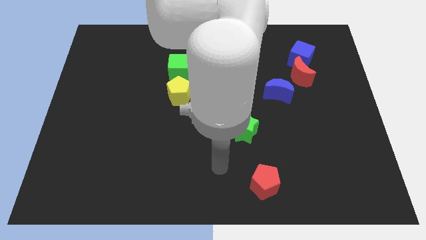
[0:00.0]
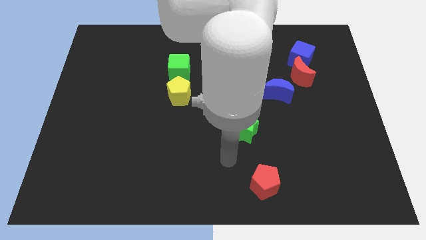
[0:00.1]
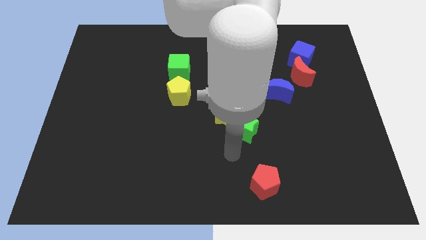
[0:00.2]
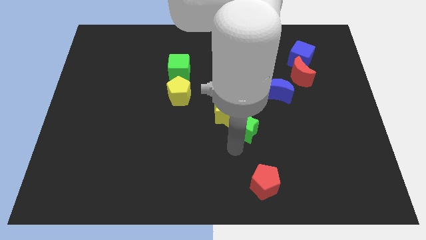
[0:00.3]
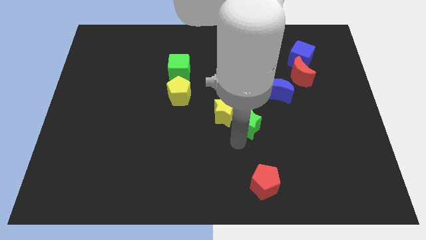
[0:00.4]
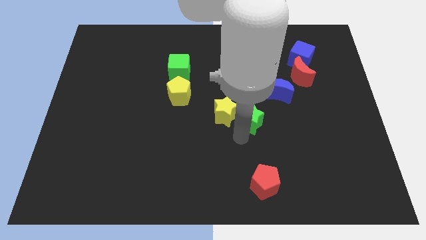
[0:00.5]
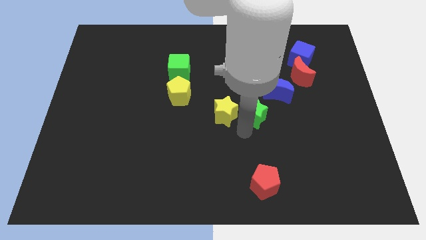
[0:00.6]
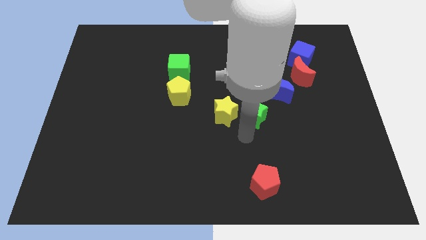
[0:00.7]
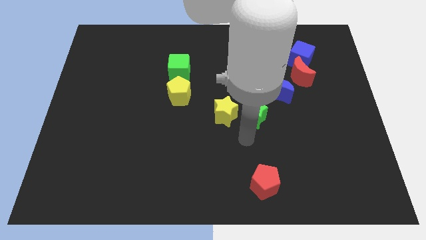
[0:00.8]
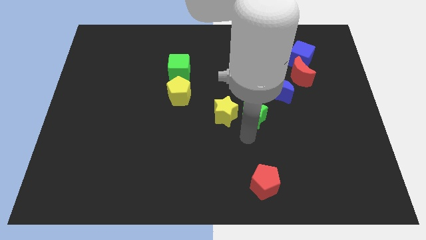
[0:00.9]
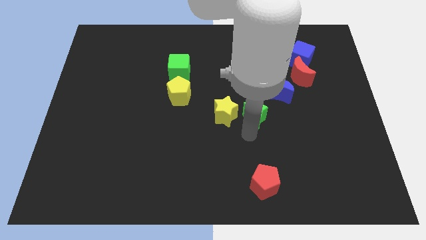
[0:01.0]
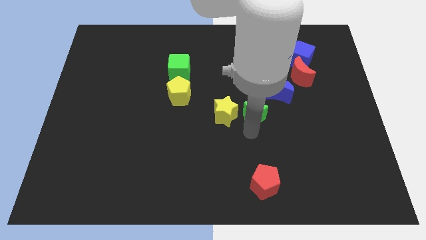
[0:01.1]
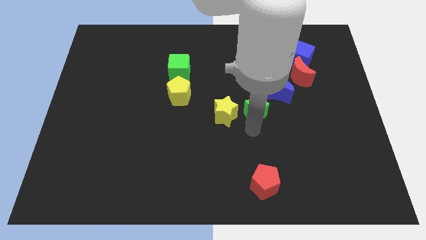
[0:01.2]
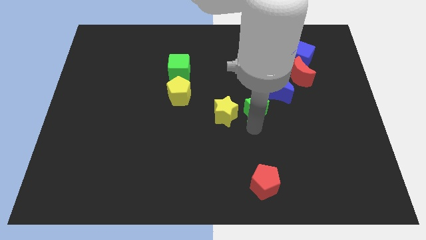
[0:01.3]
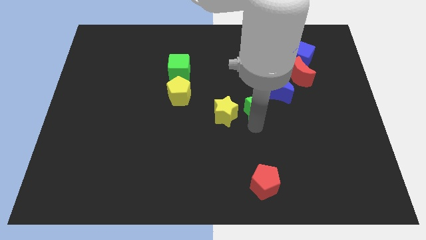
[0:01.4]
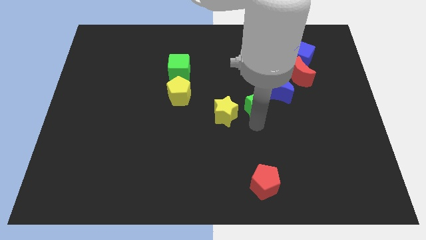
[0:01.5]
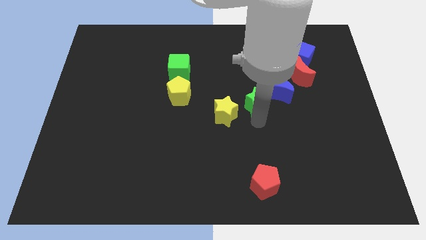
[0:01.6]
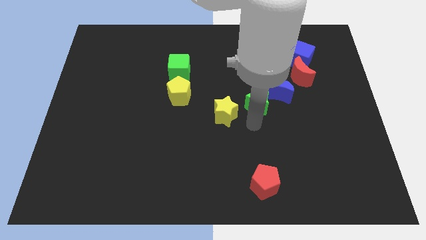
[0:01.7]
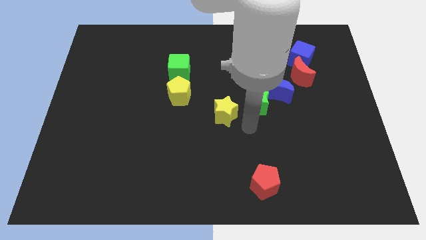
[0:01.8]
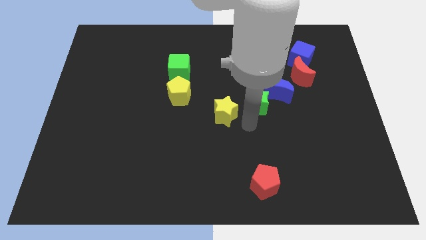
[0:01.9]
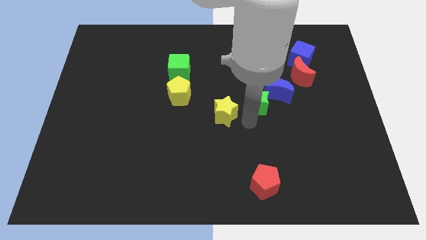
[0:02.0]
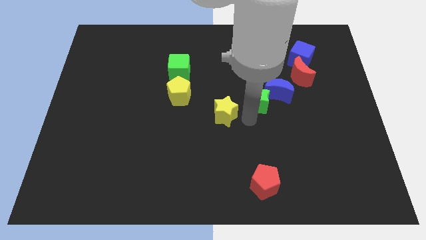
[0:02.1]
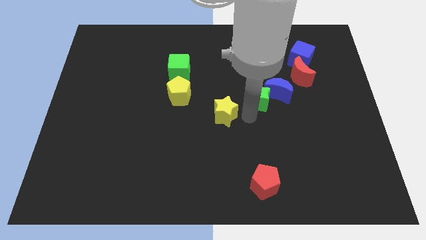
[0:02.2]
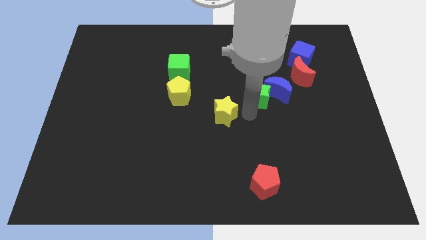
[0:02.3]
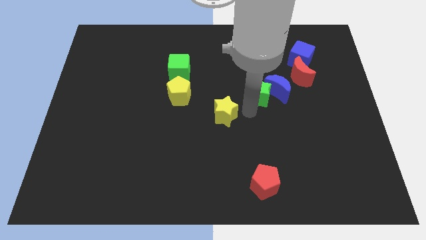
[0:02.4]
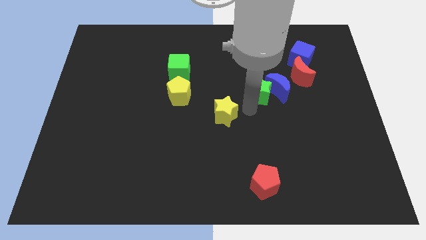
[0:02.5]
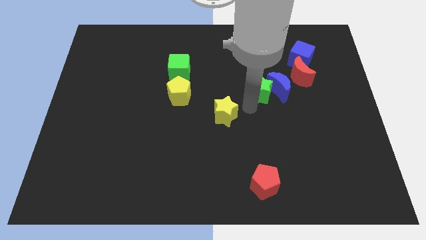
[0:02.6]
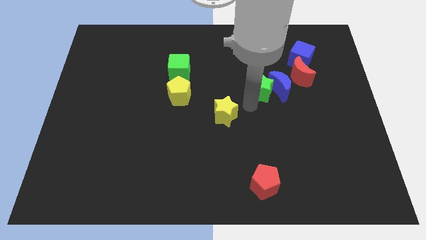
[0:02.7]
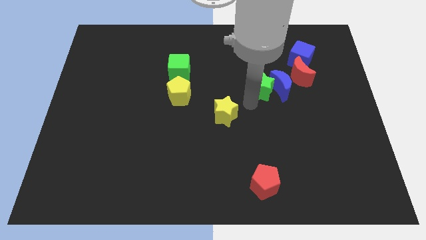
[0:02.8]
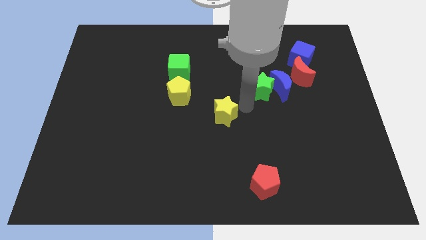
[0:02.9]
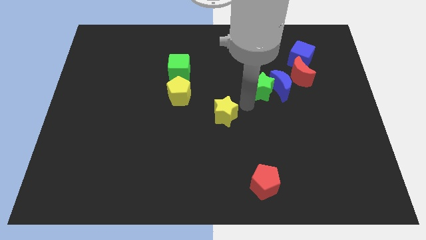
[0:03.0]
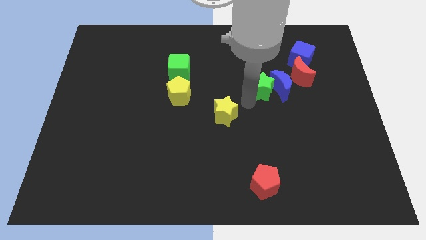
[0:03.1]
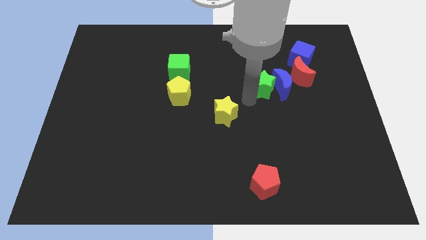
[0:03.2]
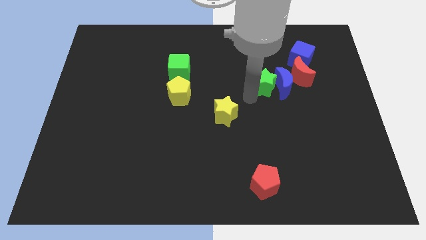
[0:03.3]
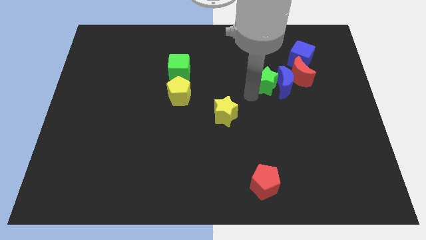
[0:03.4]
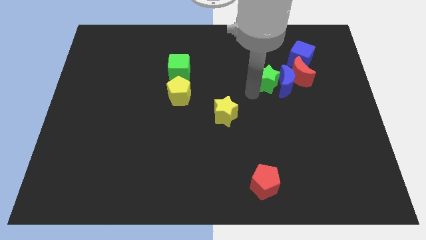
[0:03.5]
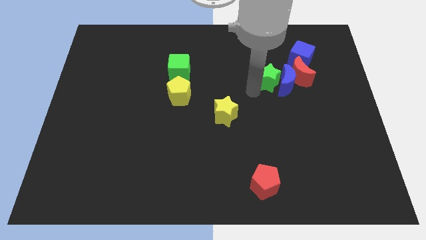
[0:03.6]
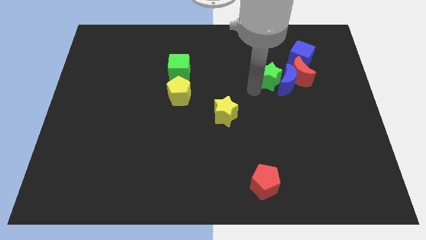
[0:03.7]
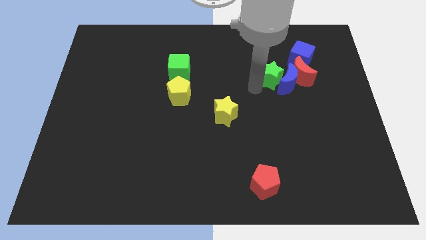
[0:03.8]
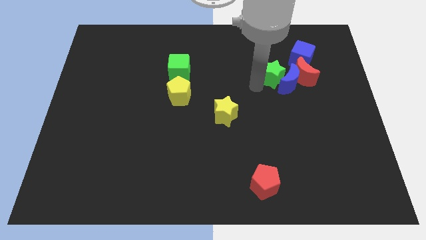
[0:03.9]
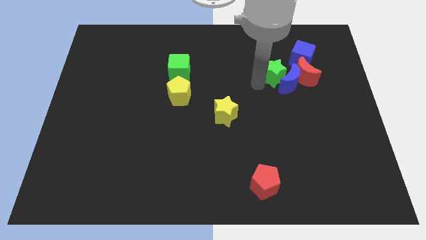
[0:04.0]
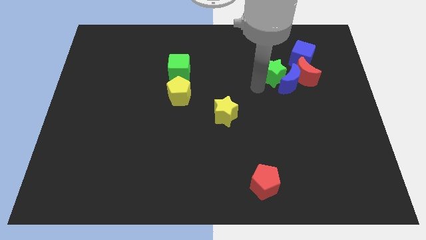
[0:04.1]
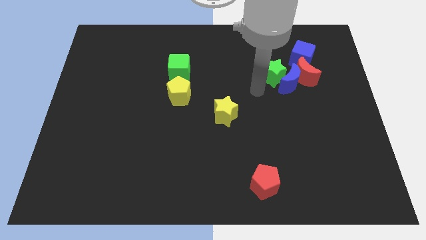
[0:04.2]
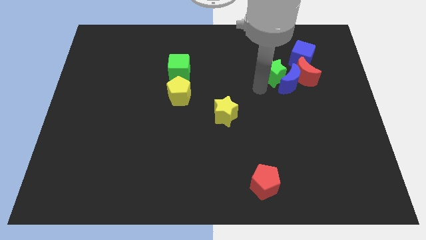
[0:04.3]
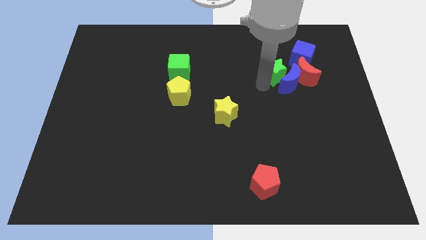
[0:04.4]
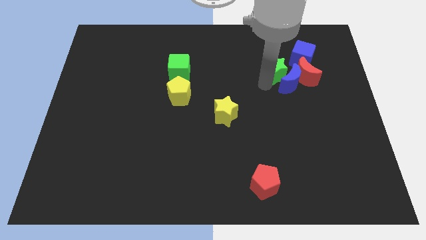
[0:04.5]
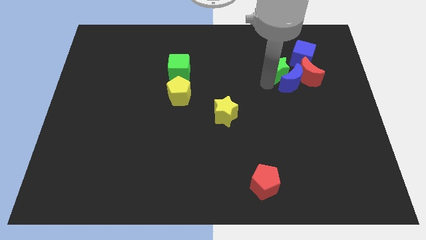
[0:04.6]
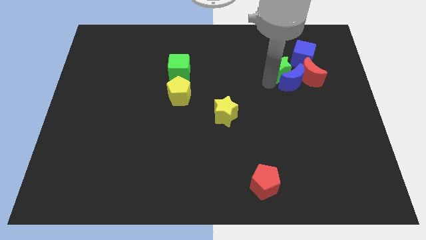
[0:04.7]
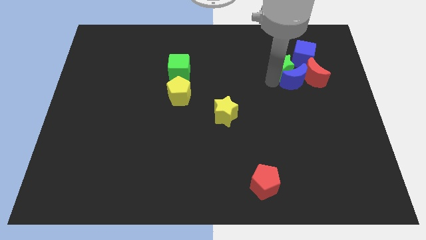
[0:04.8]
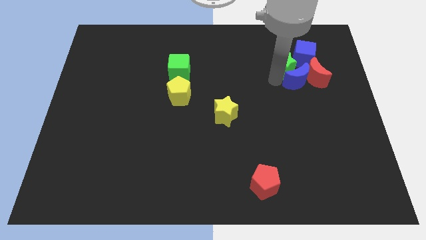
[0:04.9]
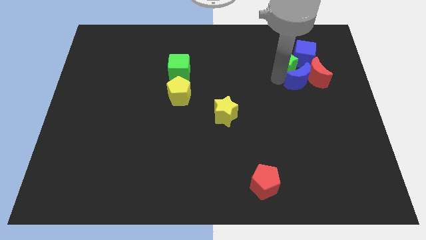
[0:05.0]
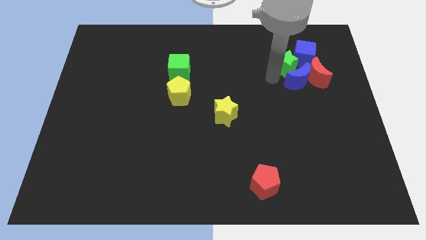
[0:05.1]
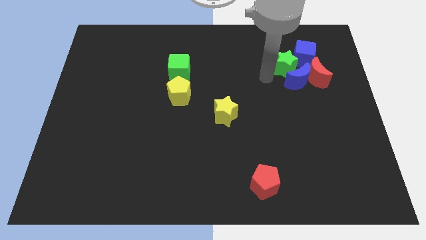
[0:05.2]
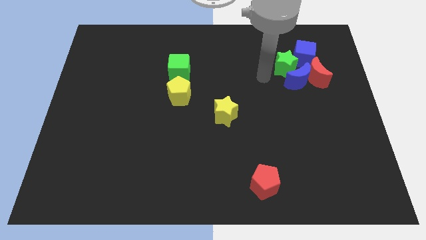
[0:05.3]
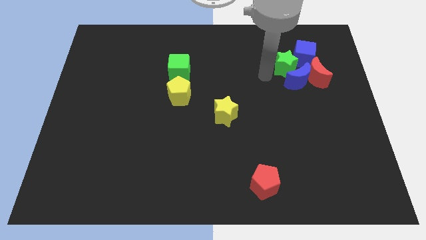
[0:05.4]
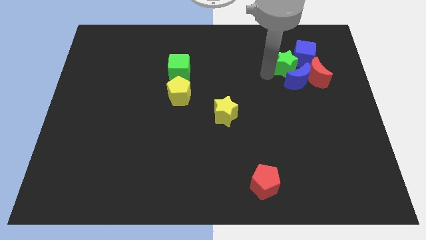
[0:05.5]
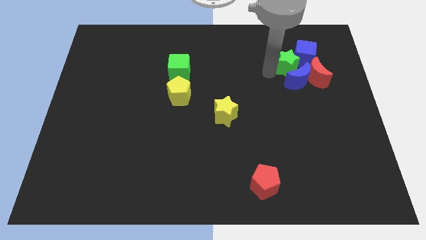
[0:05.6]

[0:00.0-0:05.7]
put the green star next to the blue cube

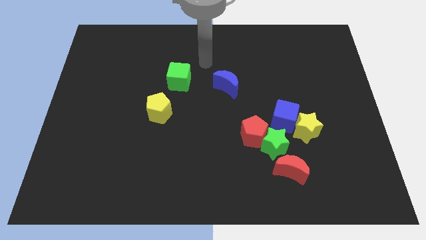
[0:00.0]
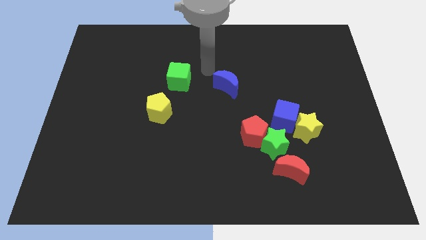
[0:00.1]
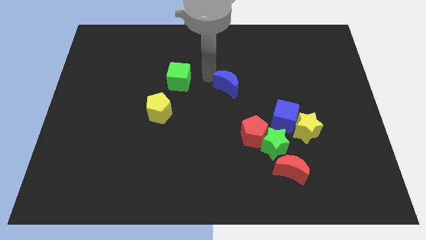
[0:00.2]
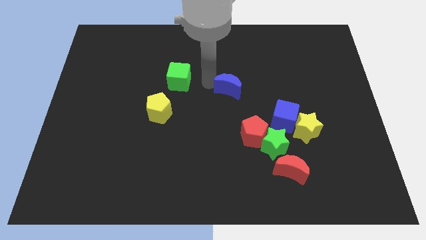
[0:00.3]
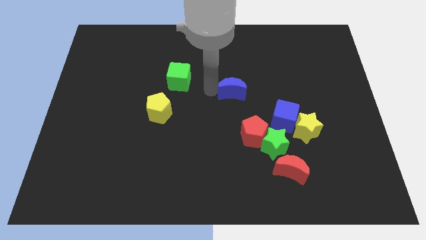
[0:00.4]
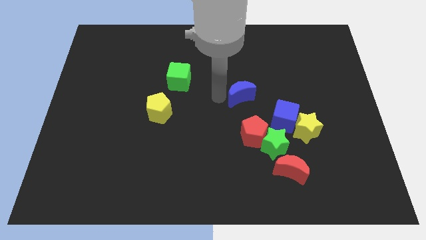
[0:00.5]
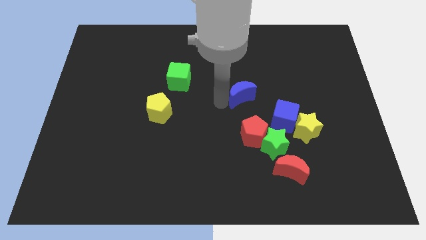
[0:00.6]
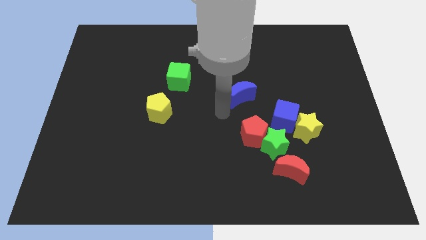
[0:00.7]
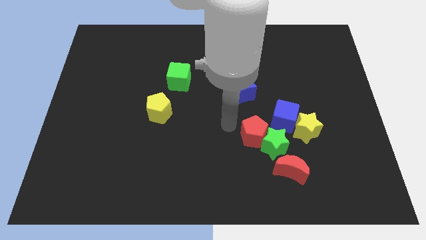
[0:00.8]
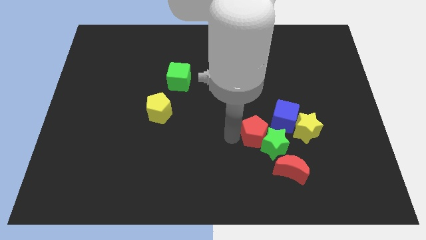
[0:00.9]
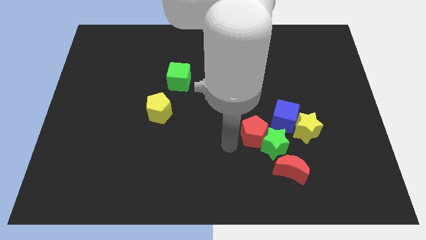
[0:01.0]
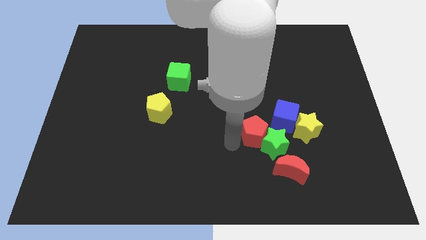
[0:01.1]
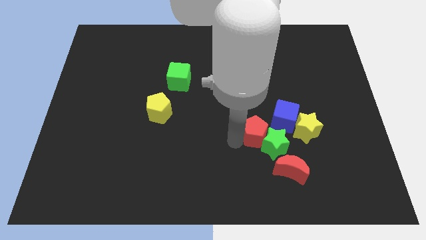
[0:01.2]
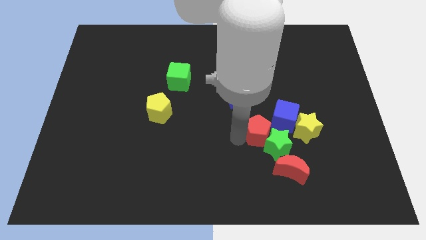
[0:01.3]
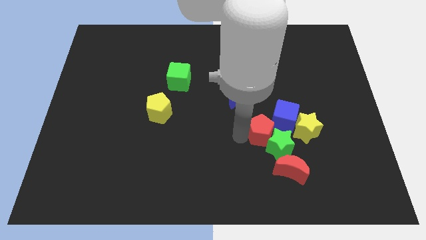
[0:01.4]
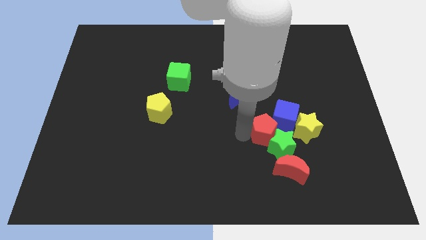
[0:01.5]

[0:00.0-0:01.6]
move the red pentagon close to the blue cube
